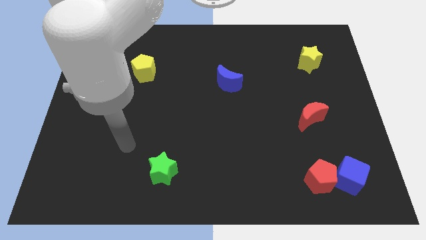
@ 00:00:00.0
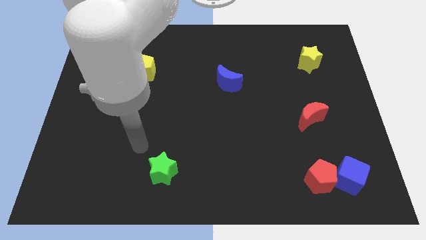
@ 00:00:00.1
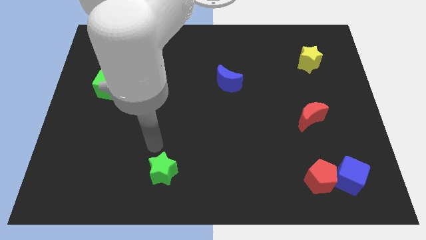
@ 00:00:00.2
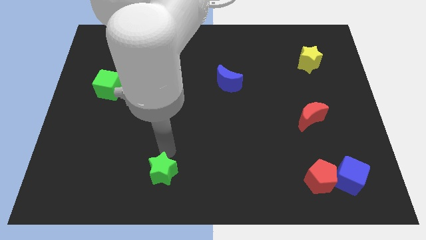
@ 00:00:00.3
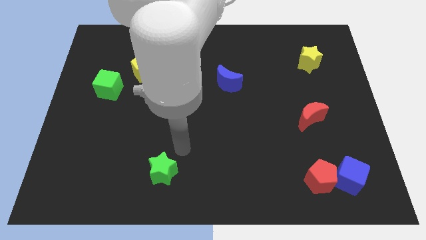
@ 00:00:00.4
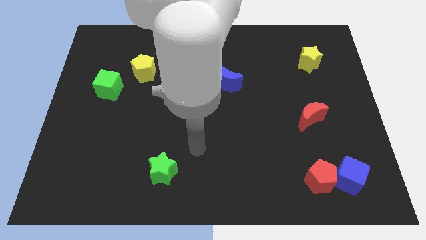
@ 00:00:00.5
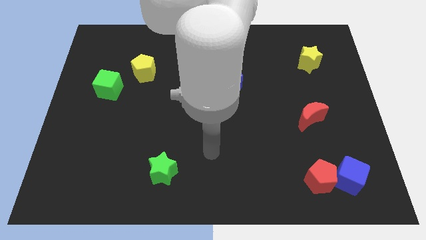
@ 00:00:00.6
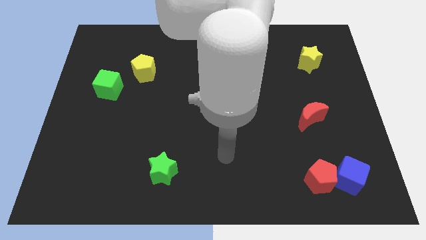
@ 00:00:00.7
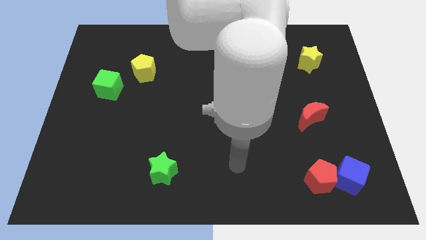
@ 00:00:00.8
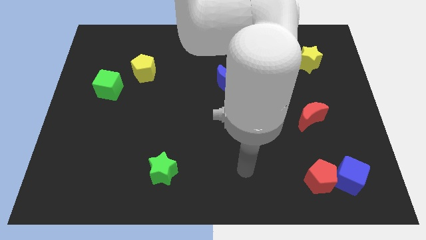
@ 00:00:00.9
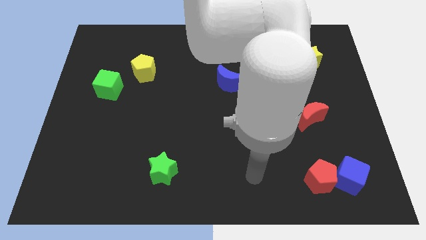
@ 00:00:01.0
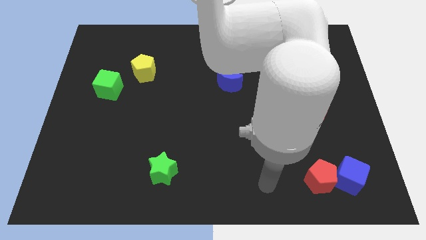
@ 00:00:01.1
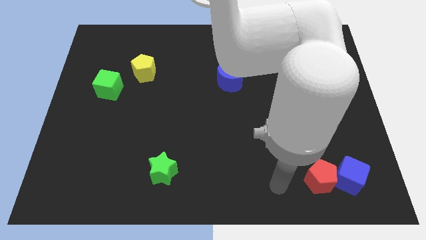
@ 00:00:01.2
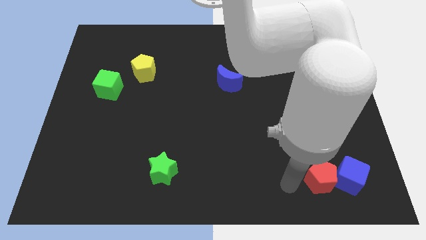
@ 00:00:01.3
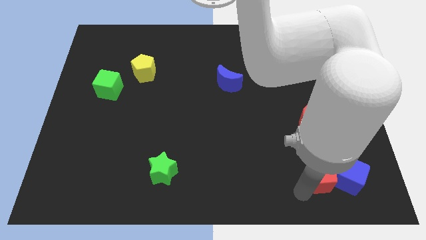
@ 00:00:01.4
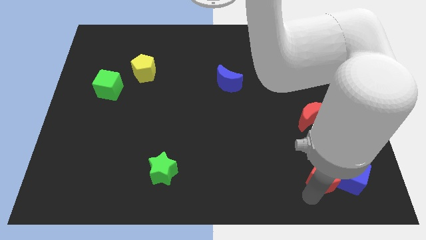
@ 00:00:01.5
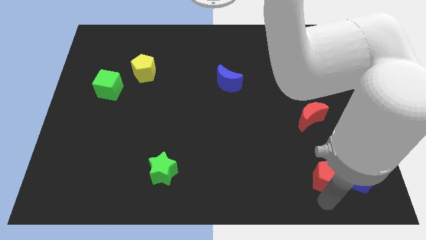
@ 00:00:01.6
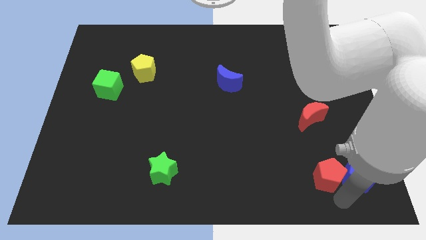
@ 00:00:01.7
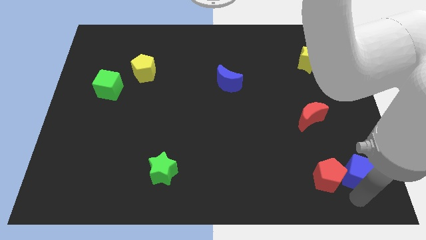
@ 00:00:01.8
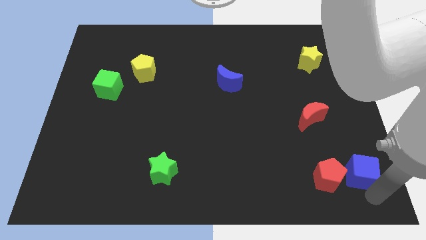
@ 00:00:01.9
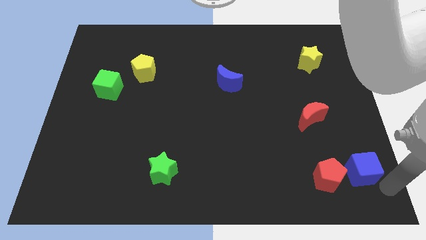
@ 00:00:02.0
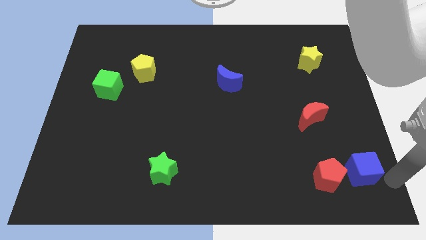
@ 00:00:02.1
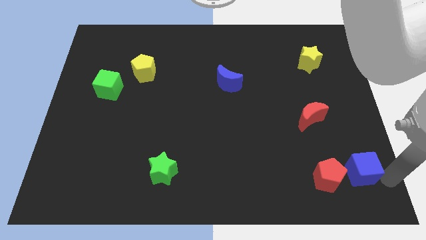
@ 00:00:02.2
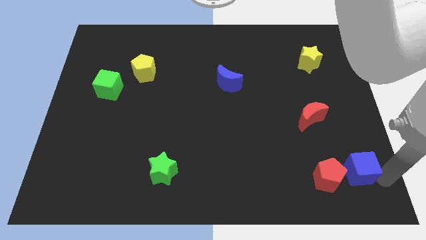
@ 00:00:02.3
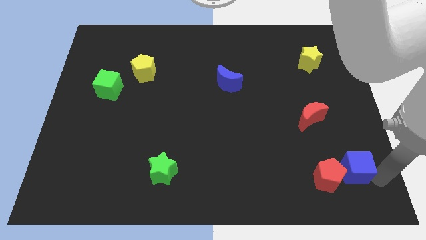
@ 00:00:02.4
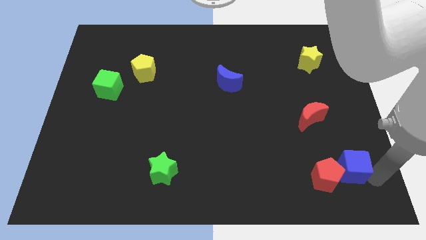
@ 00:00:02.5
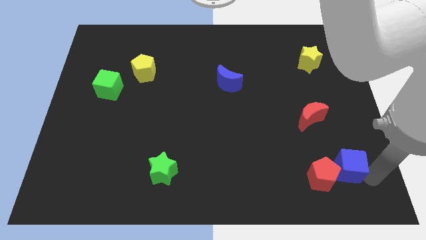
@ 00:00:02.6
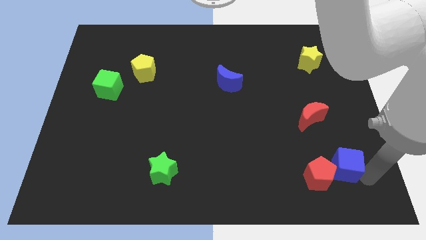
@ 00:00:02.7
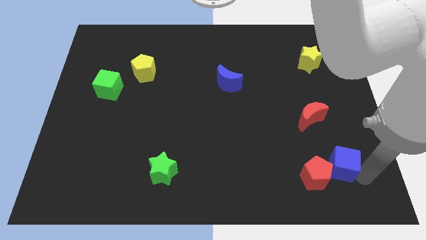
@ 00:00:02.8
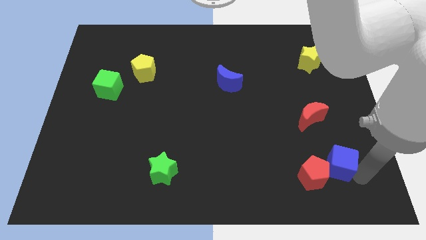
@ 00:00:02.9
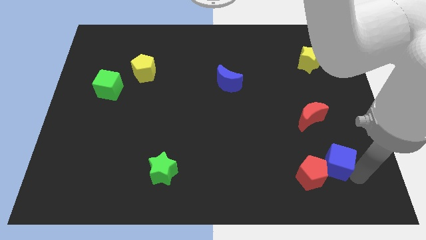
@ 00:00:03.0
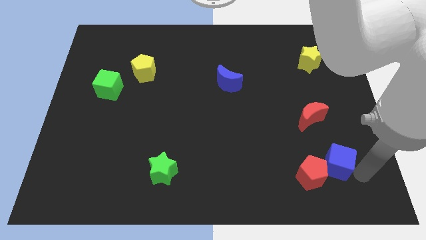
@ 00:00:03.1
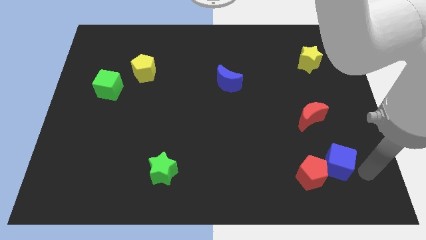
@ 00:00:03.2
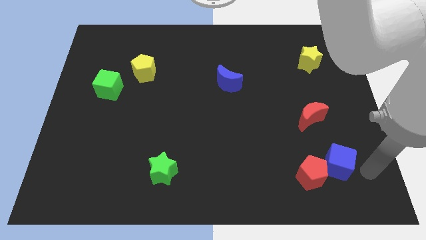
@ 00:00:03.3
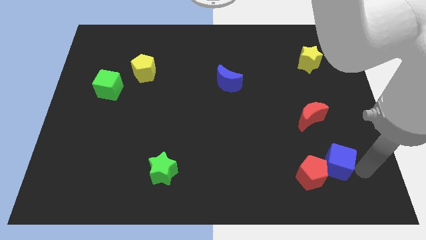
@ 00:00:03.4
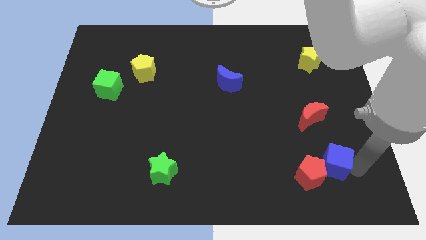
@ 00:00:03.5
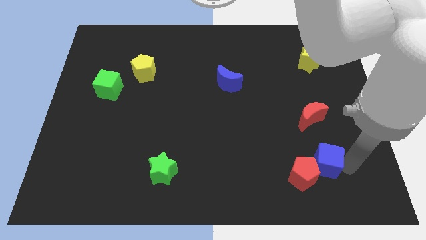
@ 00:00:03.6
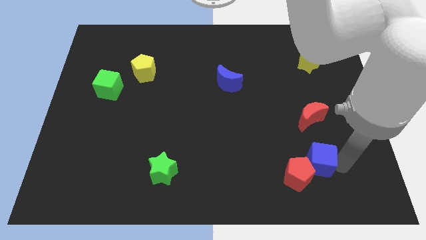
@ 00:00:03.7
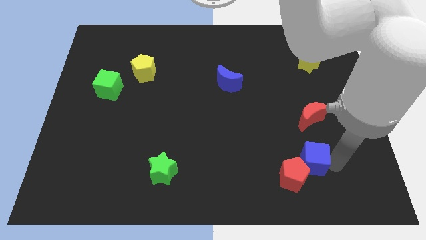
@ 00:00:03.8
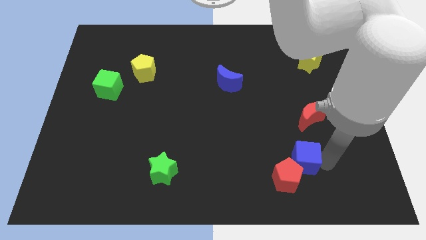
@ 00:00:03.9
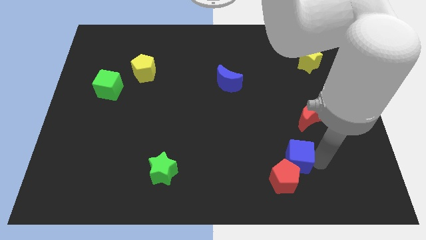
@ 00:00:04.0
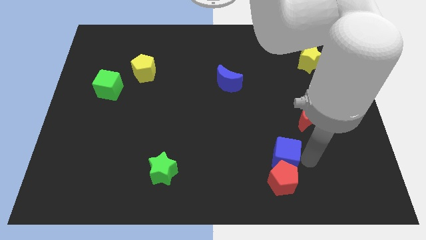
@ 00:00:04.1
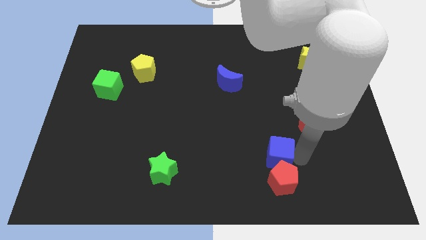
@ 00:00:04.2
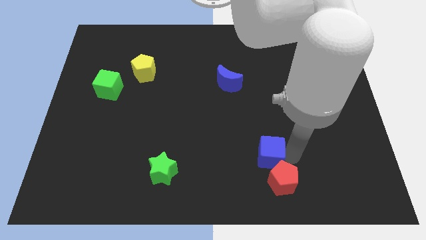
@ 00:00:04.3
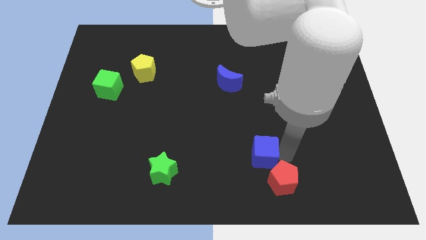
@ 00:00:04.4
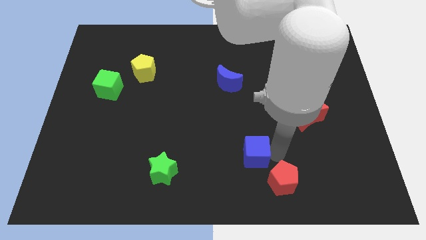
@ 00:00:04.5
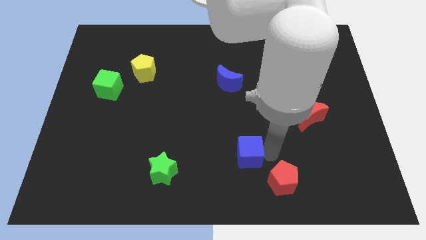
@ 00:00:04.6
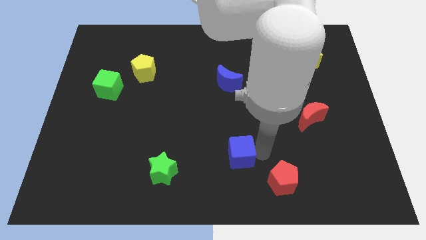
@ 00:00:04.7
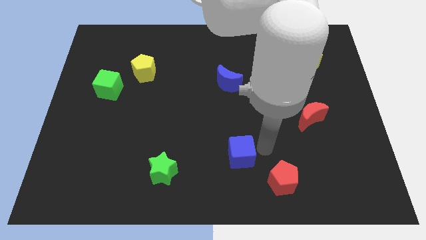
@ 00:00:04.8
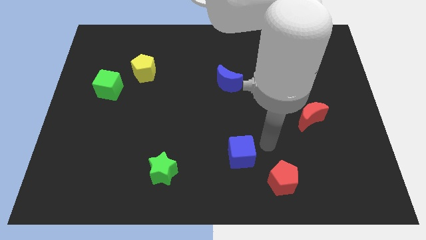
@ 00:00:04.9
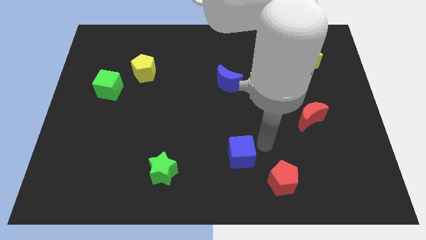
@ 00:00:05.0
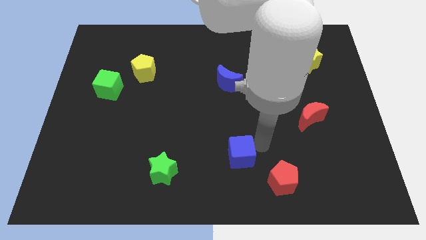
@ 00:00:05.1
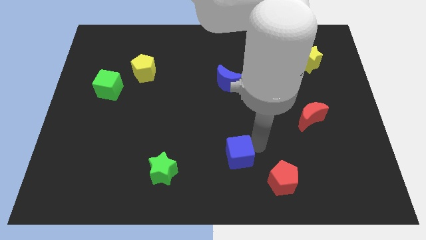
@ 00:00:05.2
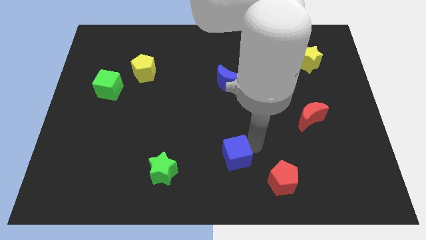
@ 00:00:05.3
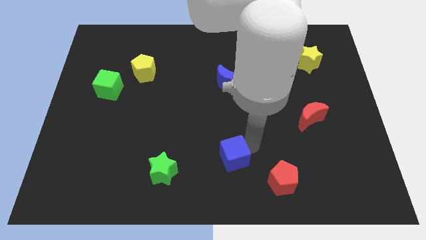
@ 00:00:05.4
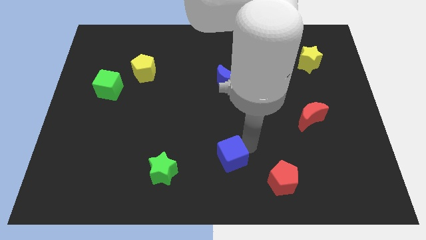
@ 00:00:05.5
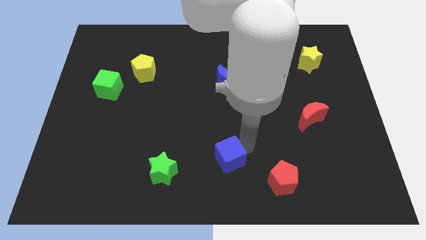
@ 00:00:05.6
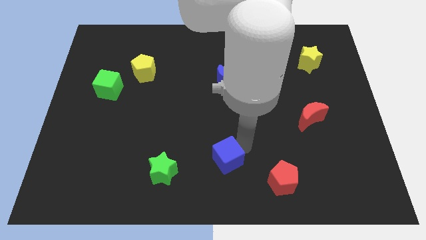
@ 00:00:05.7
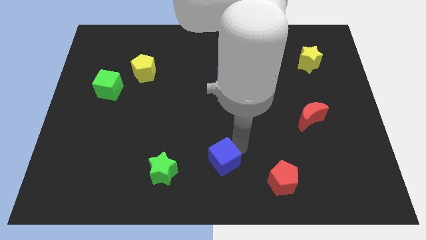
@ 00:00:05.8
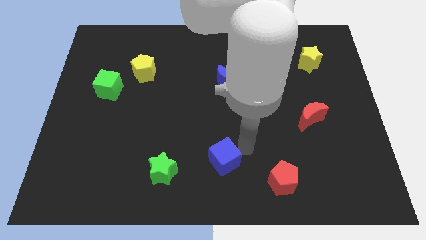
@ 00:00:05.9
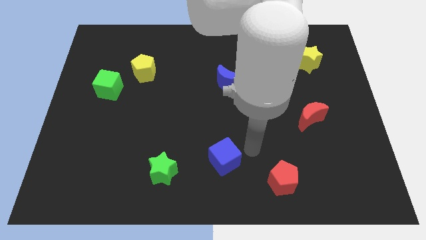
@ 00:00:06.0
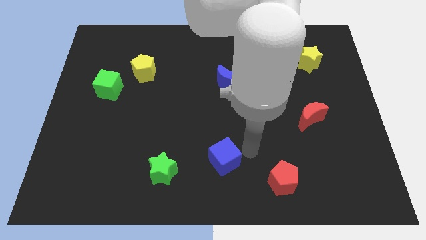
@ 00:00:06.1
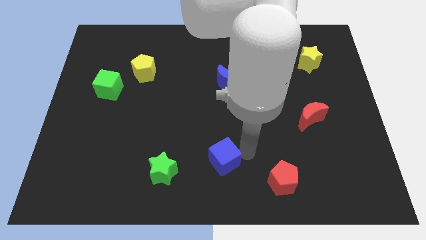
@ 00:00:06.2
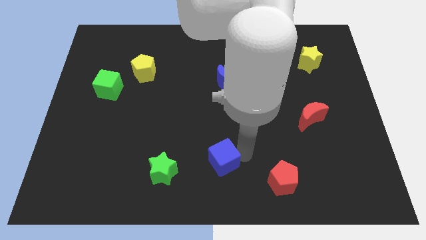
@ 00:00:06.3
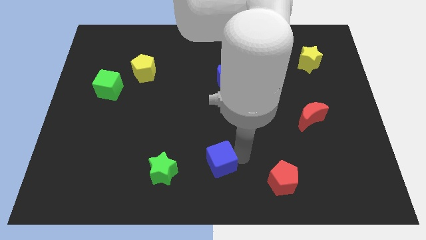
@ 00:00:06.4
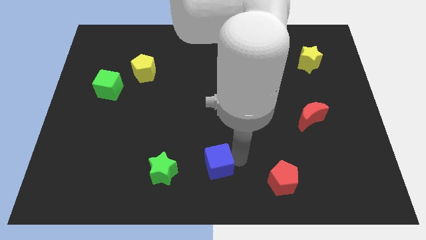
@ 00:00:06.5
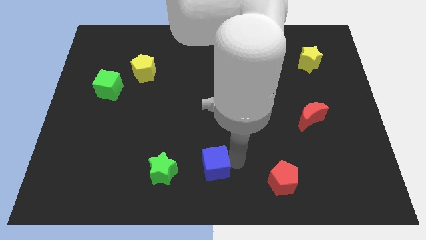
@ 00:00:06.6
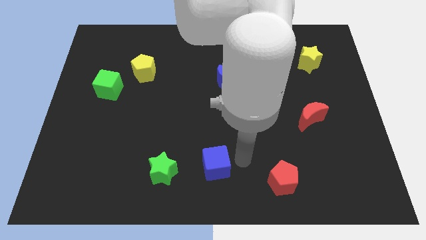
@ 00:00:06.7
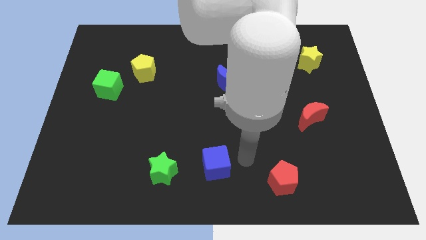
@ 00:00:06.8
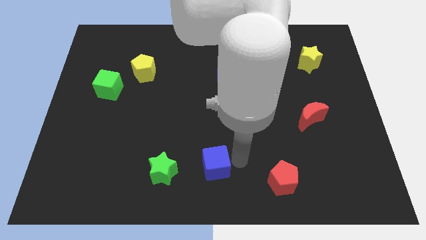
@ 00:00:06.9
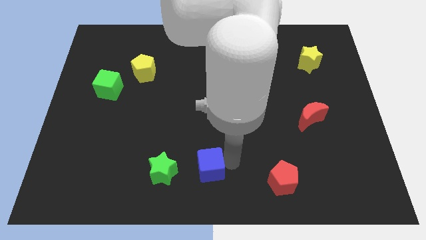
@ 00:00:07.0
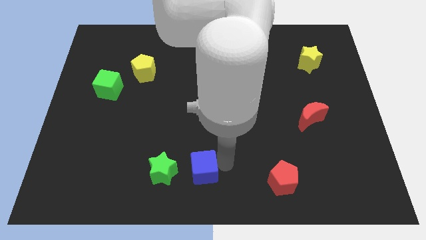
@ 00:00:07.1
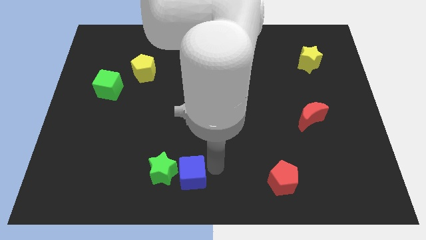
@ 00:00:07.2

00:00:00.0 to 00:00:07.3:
move the blue cube towards the green star
